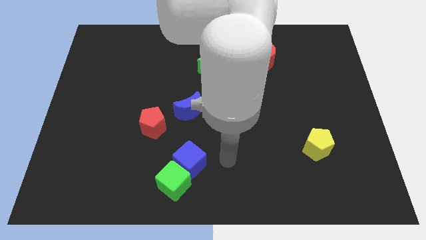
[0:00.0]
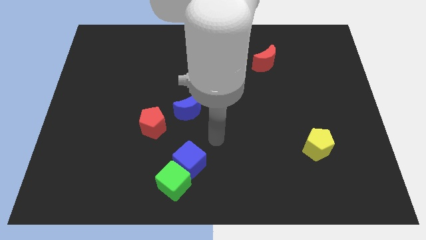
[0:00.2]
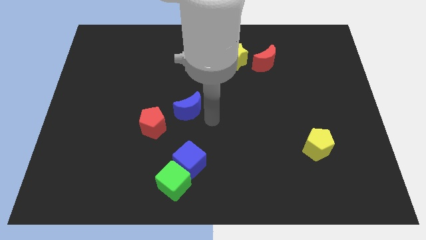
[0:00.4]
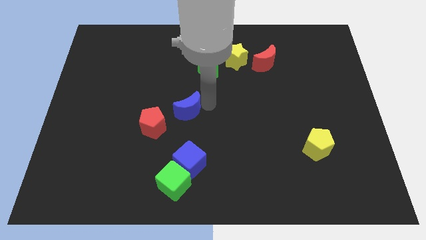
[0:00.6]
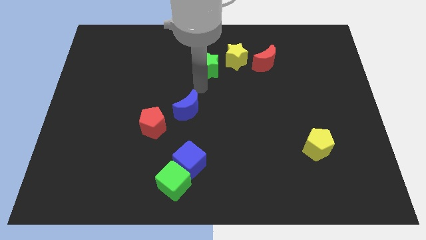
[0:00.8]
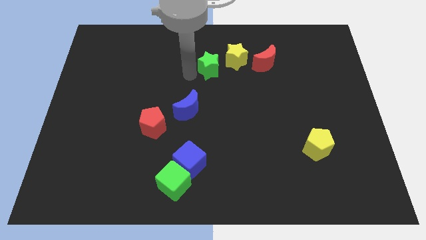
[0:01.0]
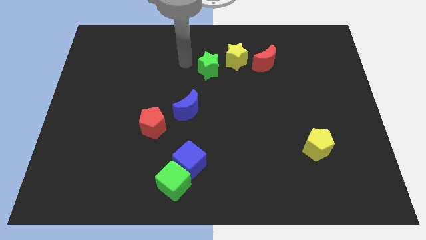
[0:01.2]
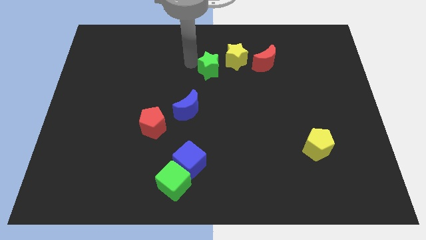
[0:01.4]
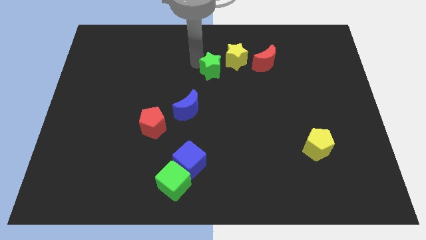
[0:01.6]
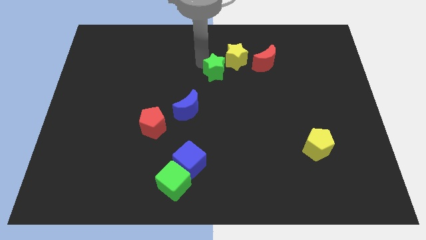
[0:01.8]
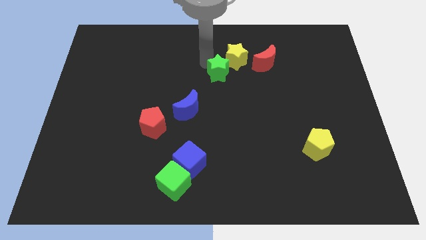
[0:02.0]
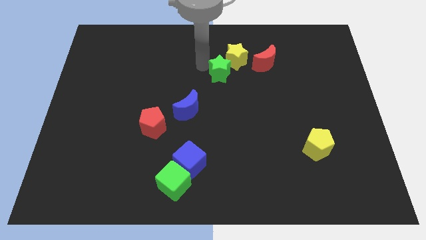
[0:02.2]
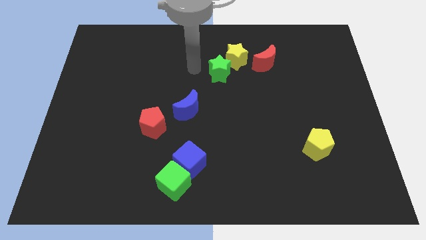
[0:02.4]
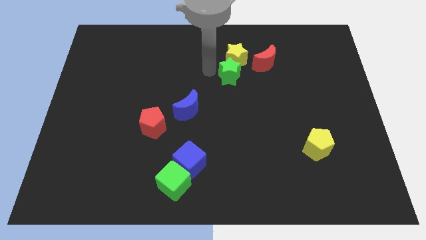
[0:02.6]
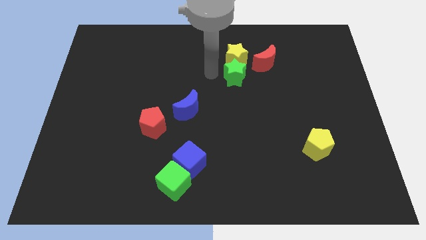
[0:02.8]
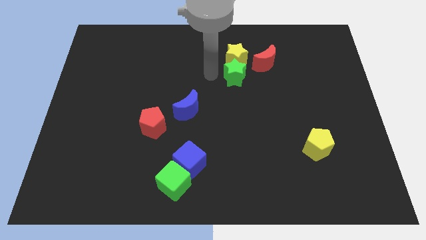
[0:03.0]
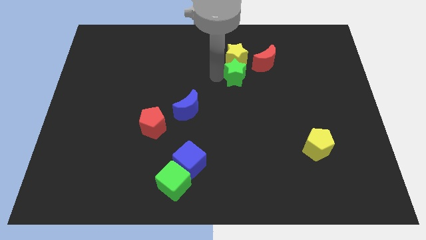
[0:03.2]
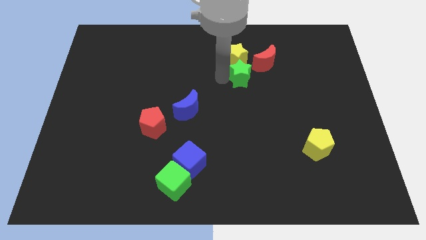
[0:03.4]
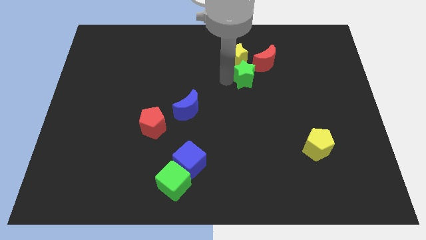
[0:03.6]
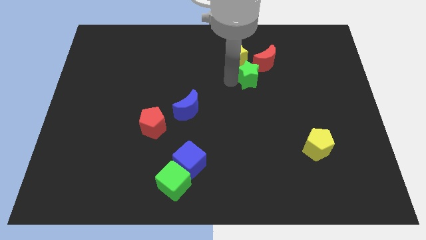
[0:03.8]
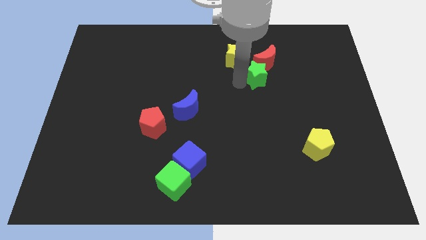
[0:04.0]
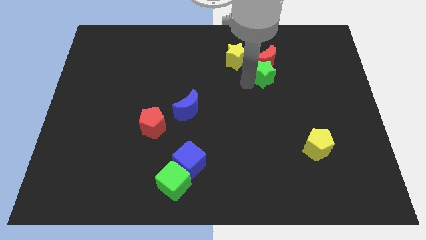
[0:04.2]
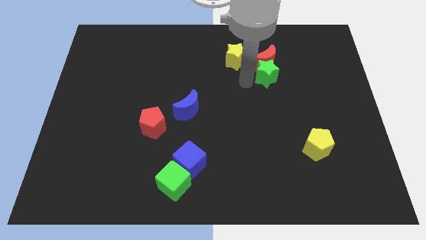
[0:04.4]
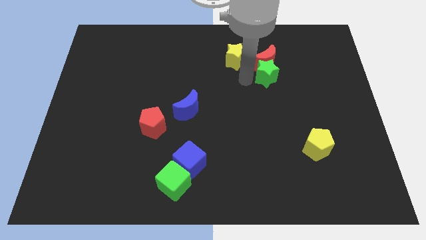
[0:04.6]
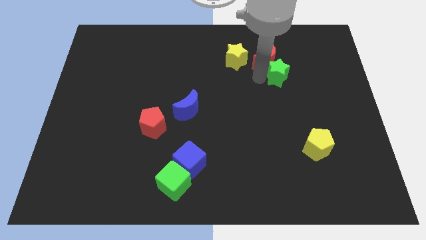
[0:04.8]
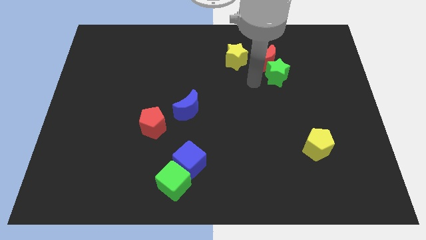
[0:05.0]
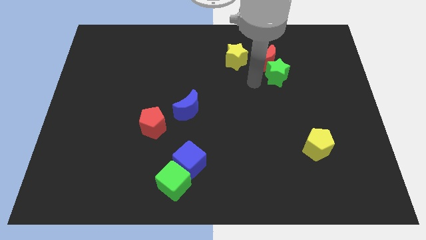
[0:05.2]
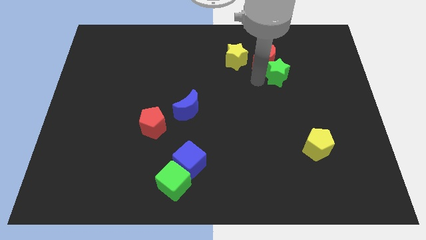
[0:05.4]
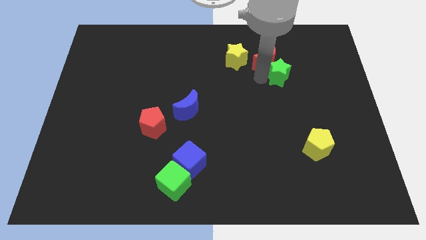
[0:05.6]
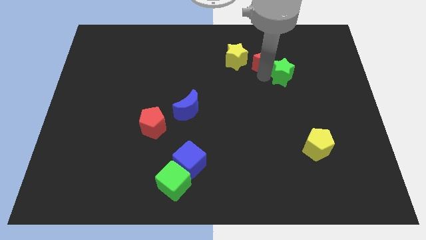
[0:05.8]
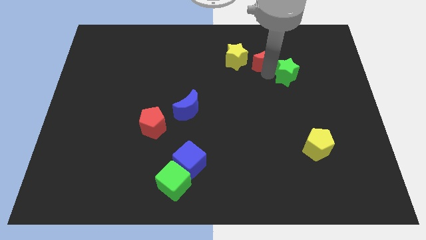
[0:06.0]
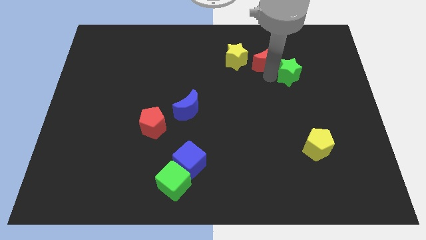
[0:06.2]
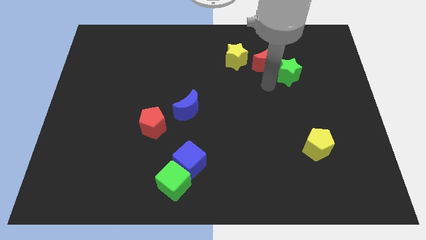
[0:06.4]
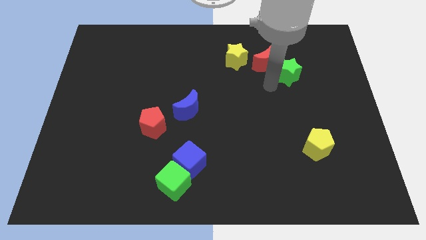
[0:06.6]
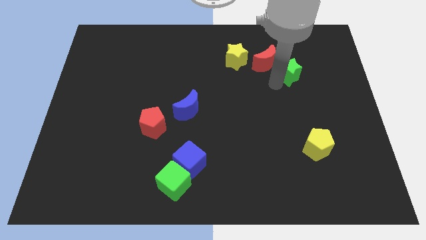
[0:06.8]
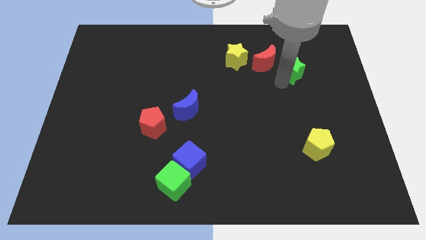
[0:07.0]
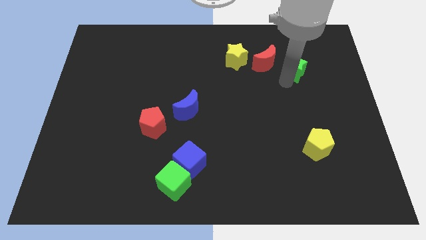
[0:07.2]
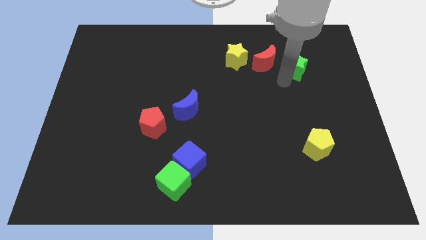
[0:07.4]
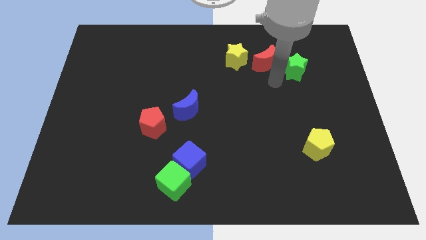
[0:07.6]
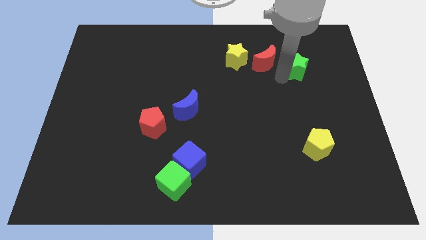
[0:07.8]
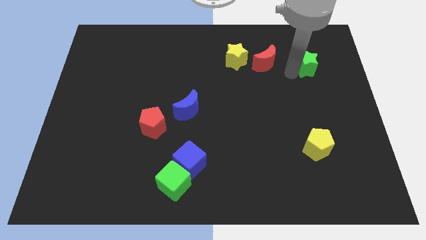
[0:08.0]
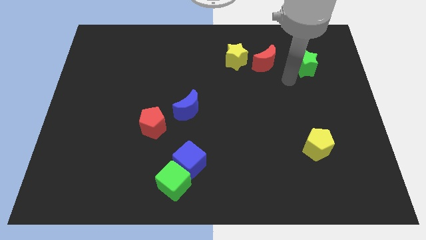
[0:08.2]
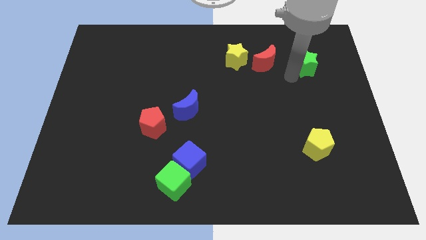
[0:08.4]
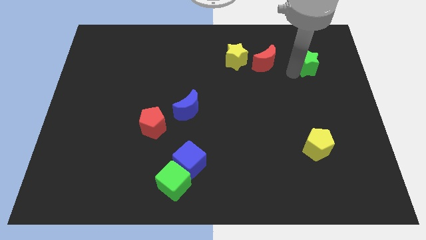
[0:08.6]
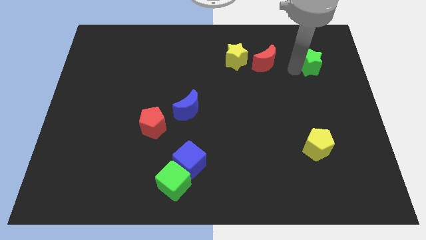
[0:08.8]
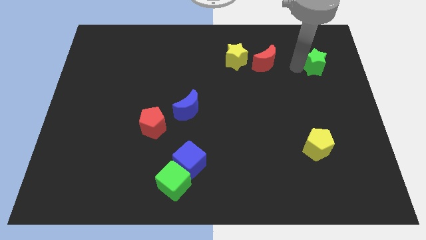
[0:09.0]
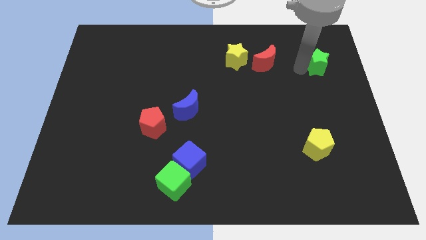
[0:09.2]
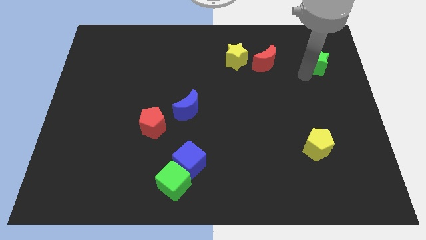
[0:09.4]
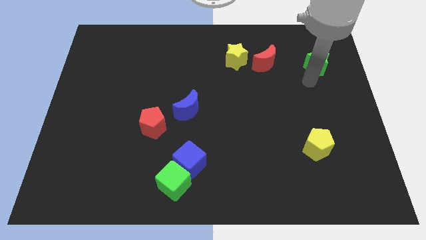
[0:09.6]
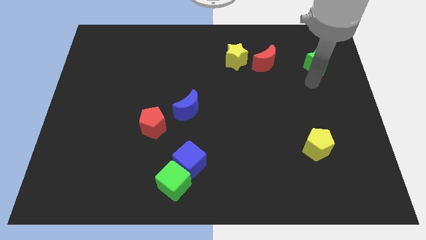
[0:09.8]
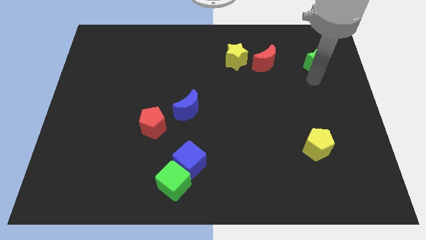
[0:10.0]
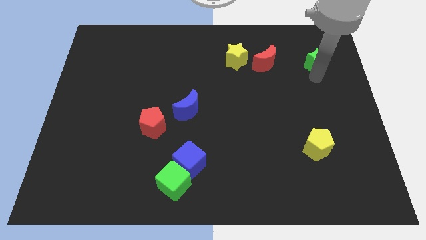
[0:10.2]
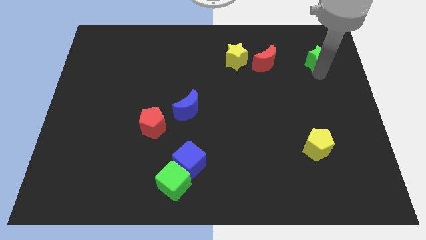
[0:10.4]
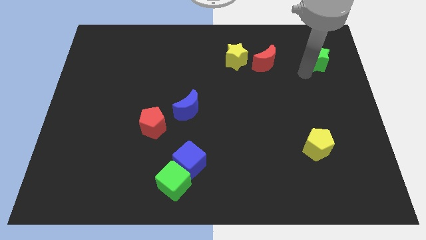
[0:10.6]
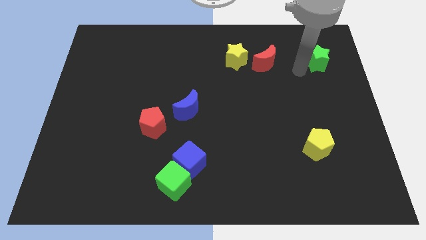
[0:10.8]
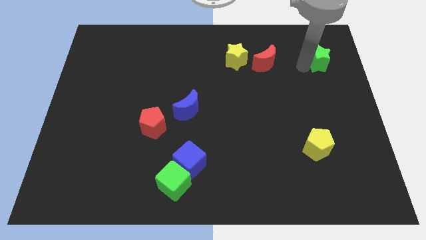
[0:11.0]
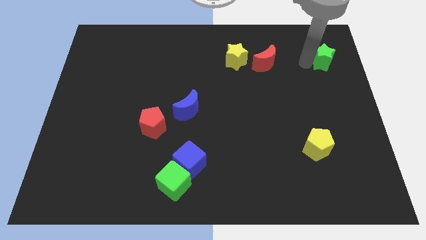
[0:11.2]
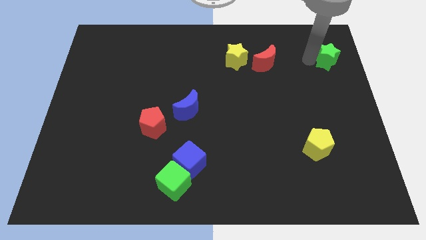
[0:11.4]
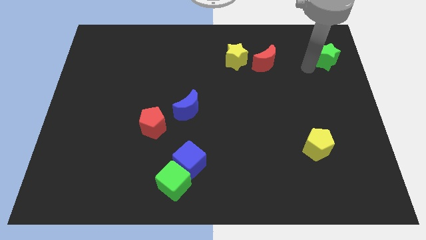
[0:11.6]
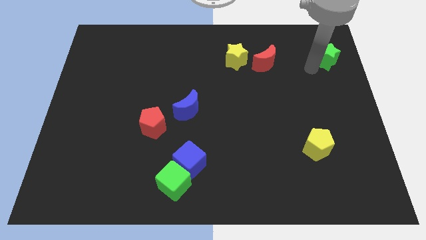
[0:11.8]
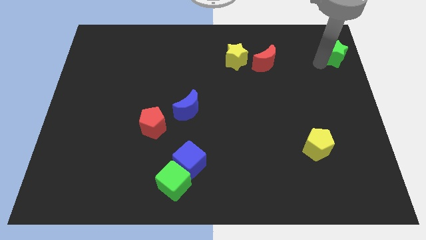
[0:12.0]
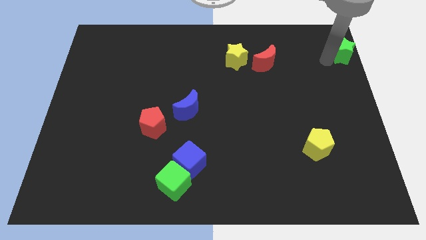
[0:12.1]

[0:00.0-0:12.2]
push the green star to the top right corner
